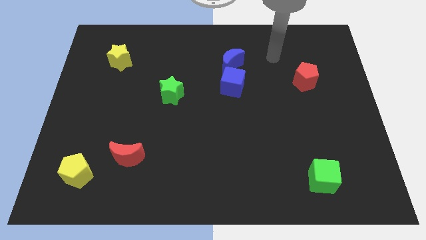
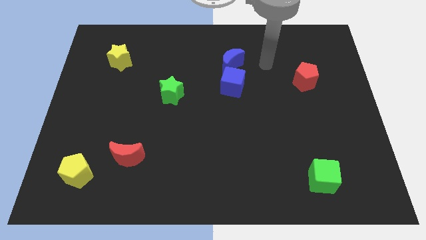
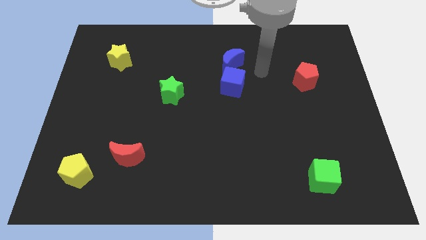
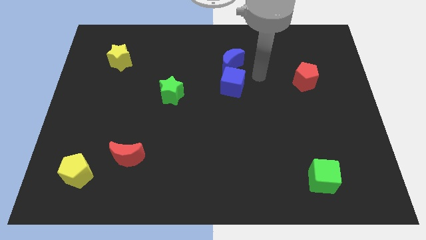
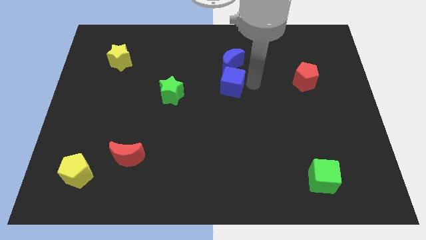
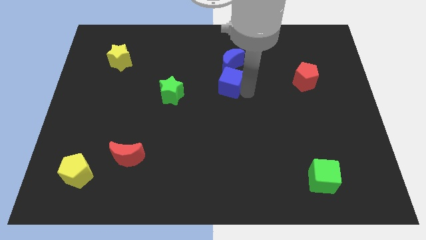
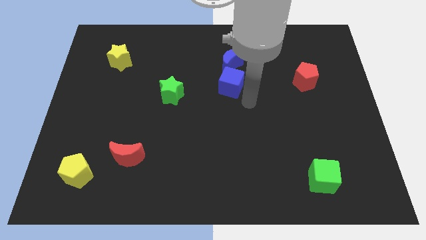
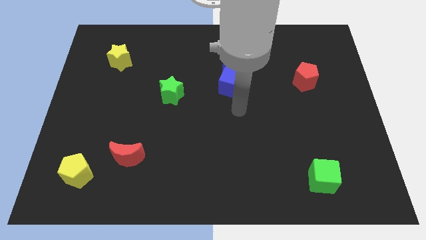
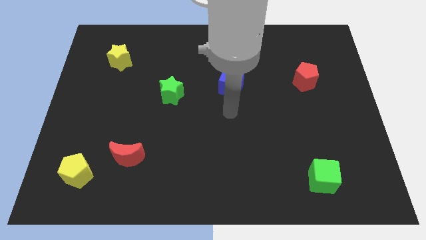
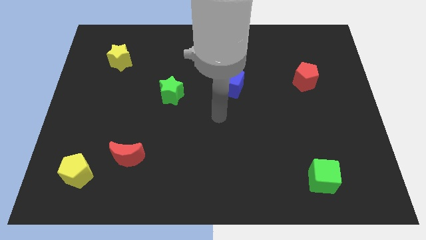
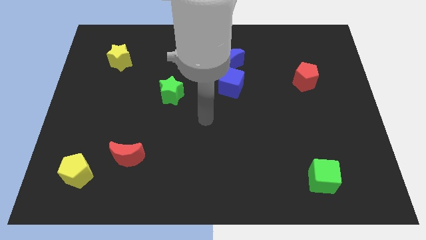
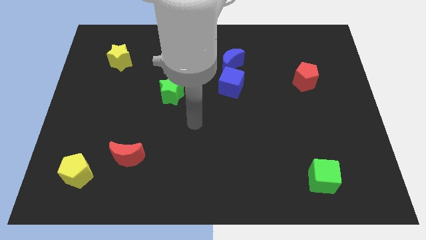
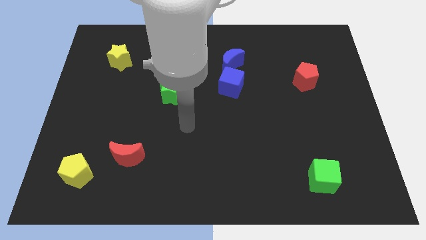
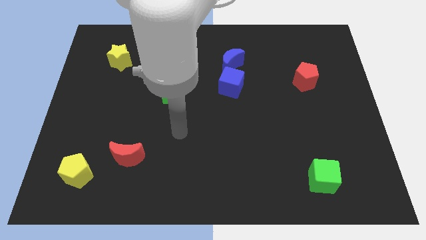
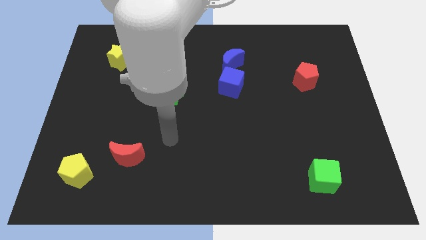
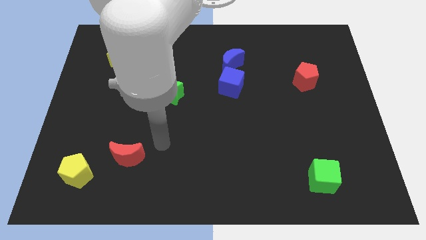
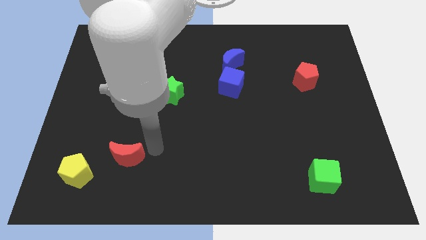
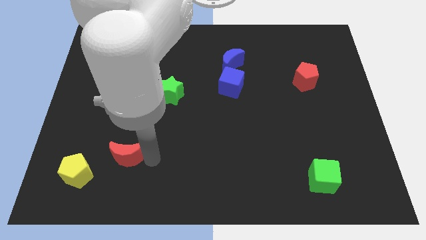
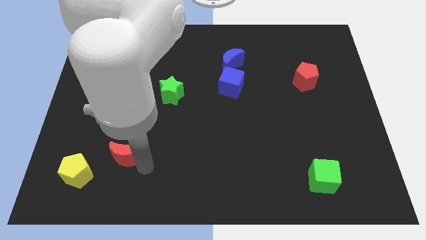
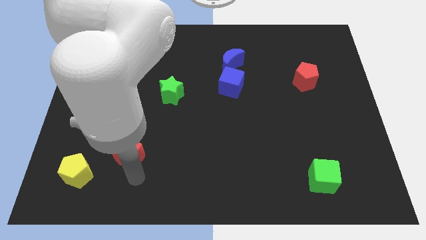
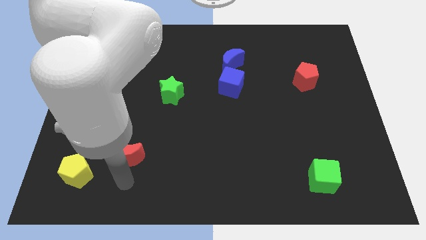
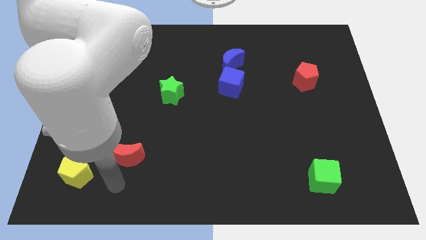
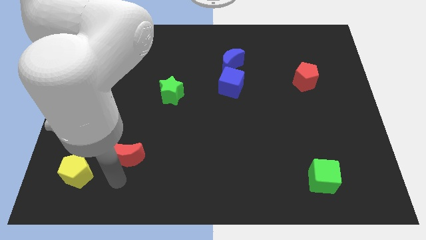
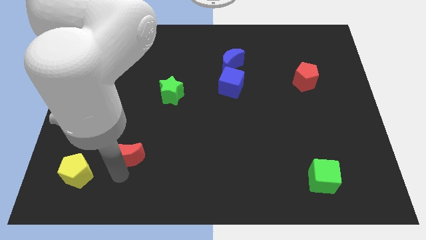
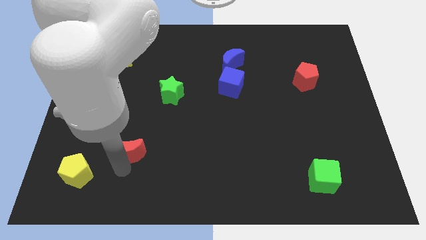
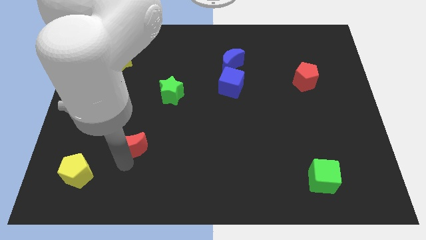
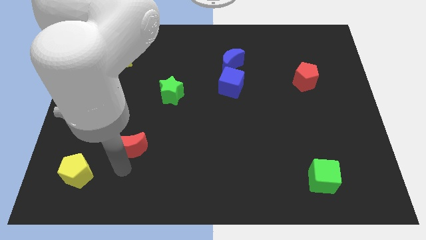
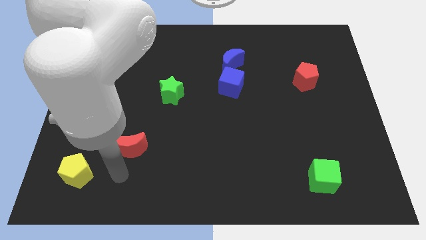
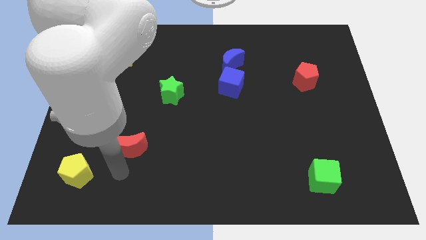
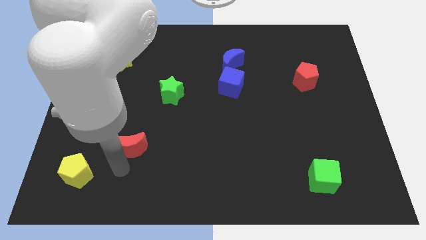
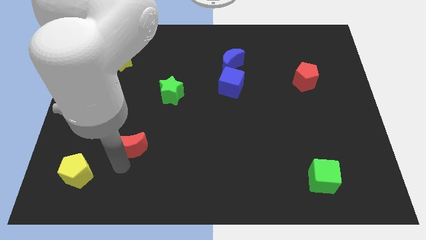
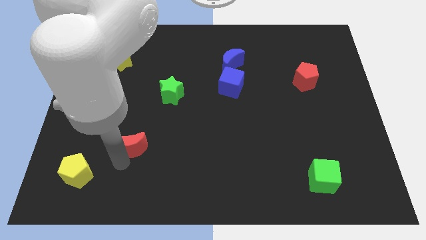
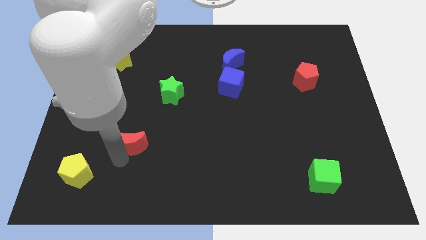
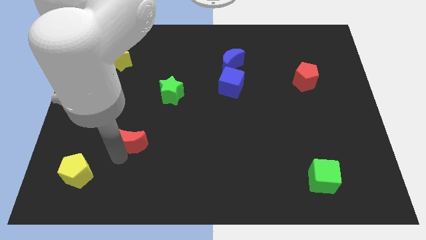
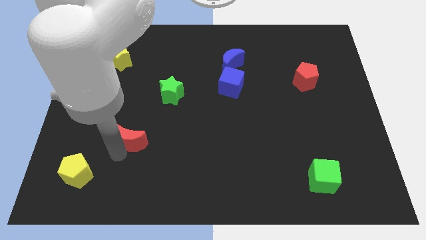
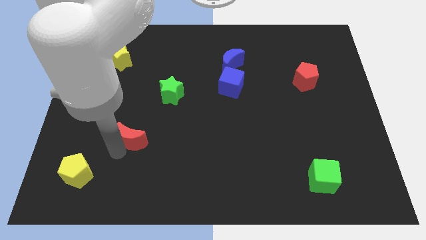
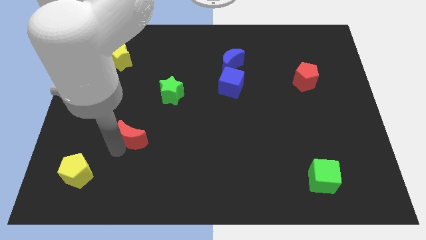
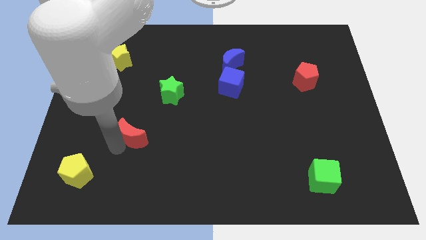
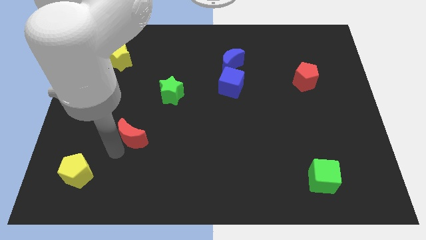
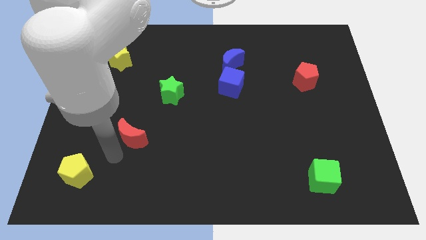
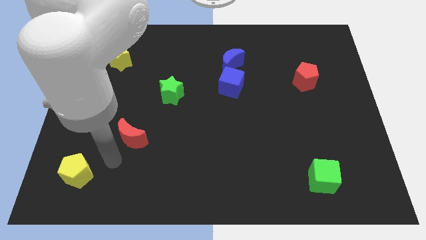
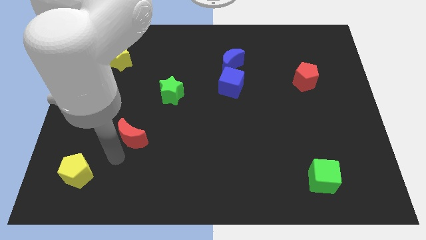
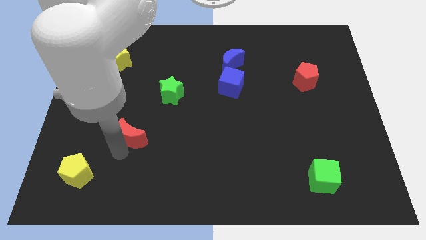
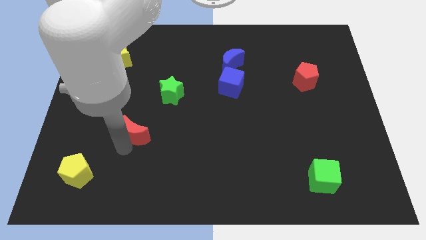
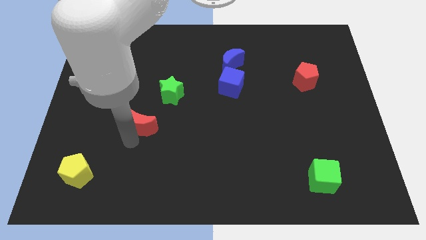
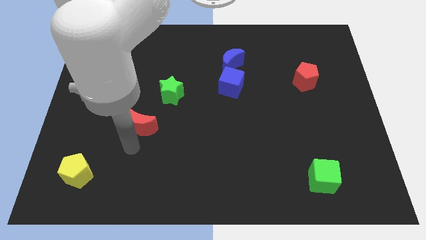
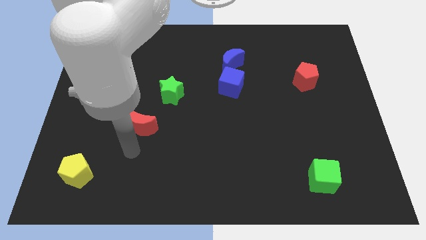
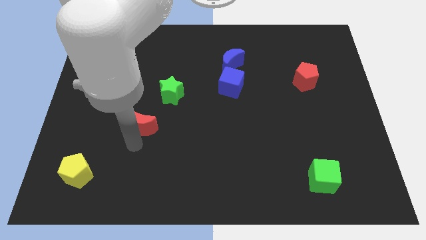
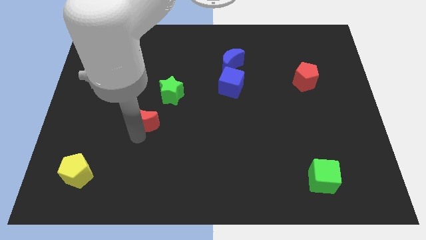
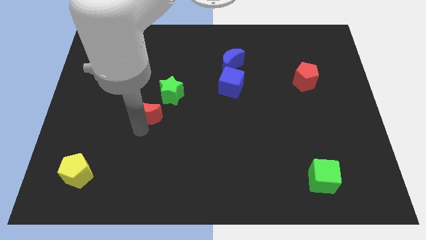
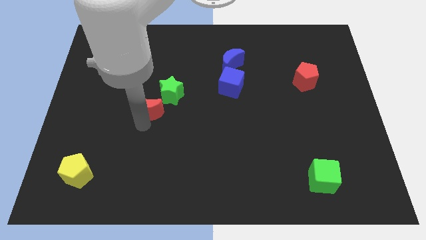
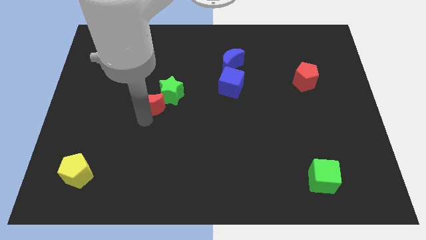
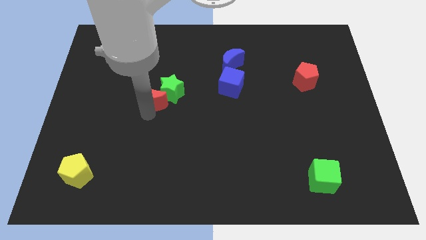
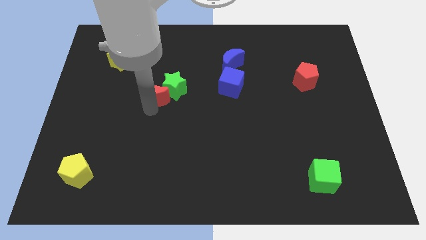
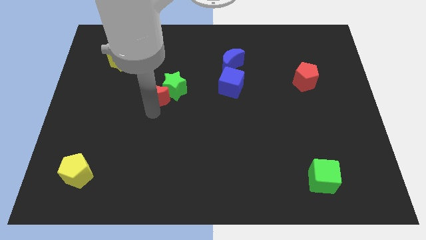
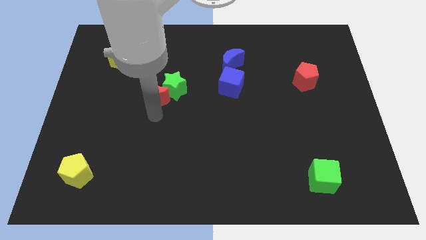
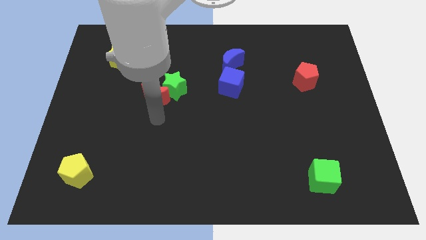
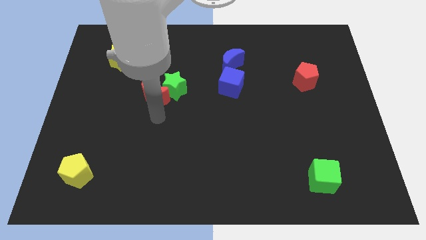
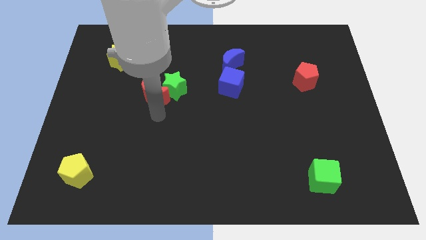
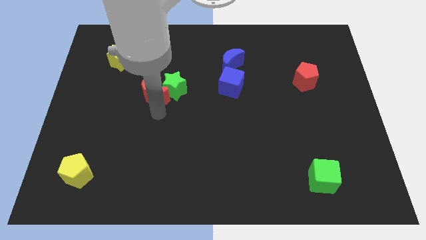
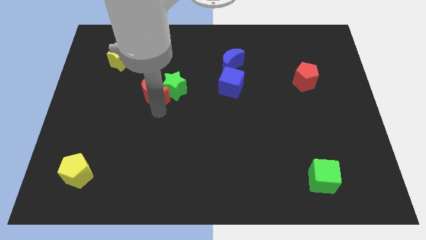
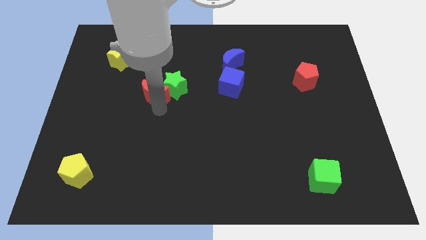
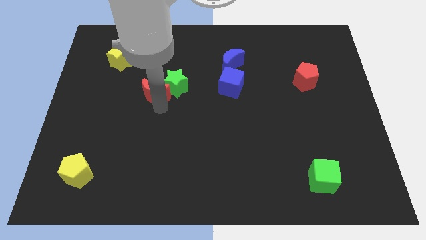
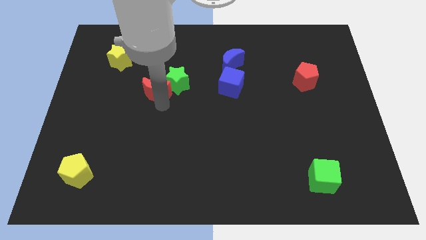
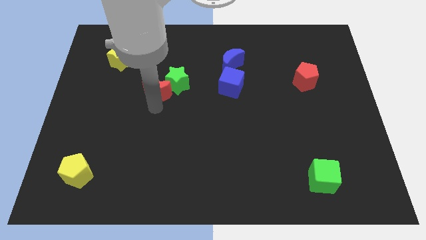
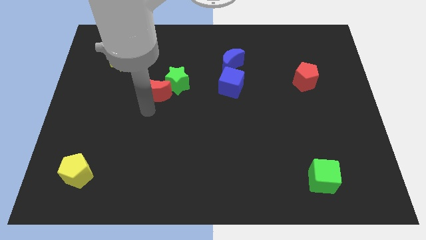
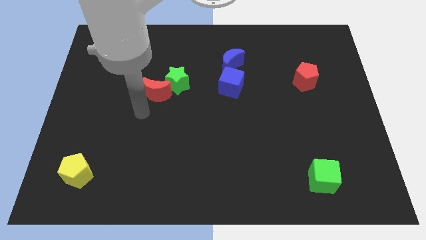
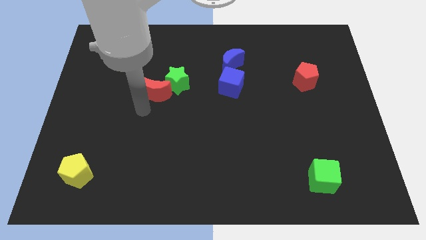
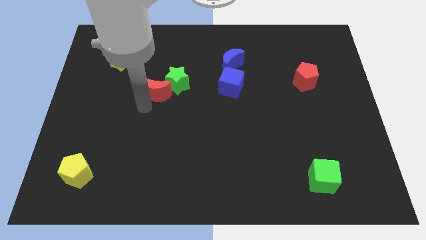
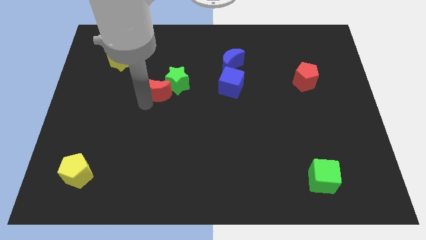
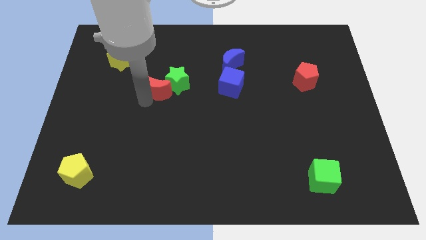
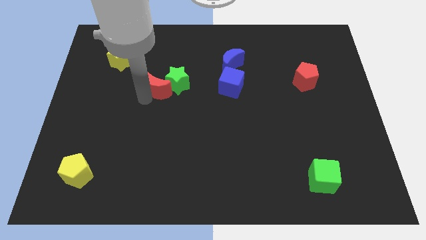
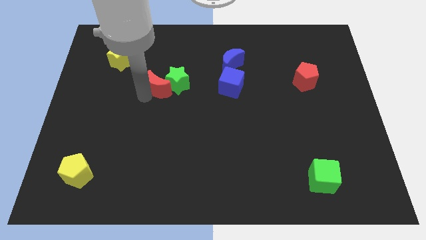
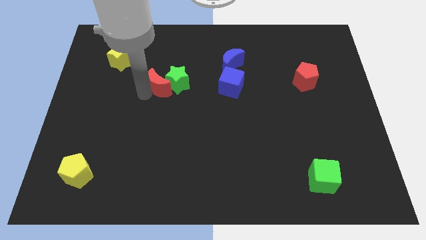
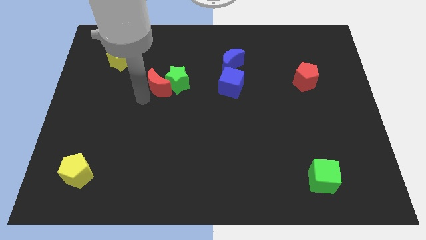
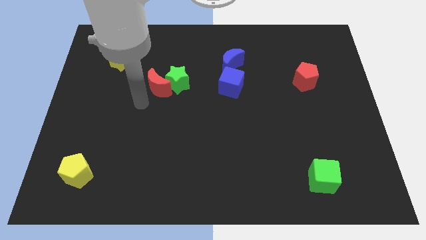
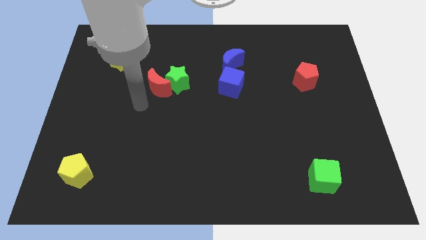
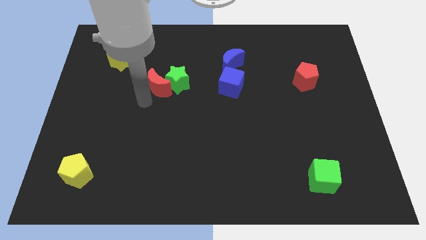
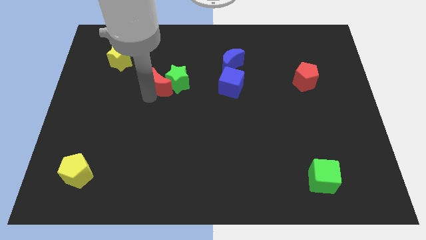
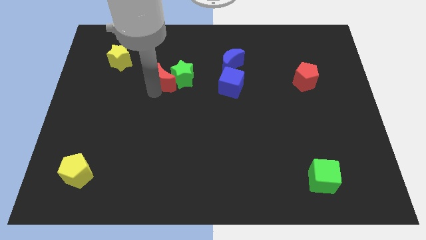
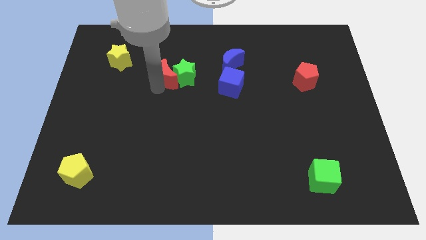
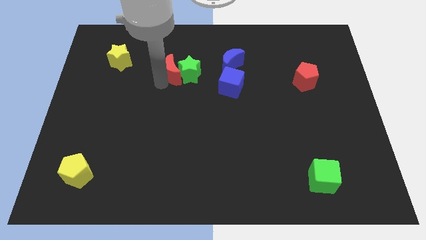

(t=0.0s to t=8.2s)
slide the red moon left of the blue moon
